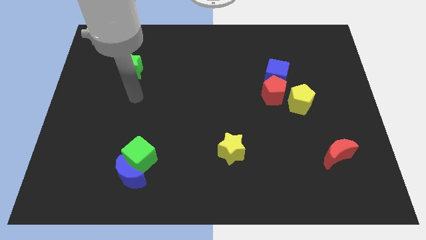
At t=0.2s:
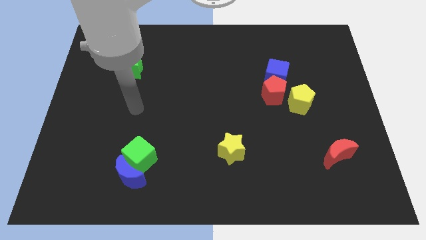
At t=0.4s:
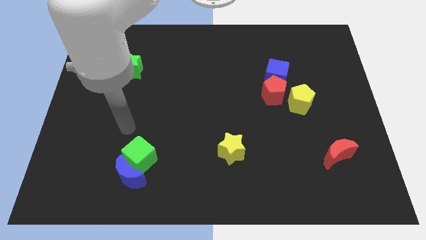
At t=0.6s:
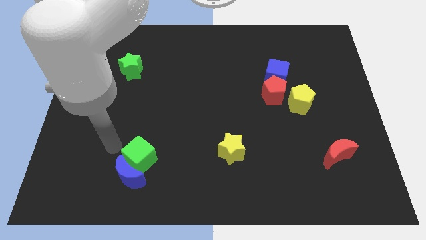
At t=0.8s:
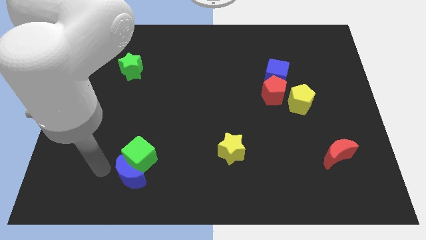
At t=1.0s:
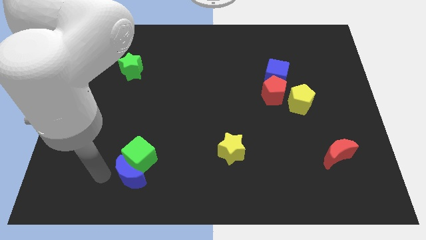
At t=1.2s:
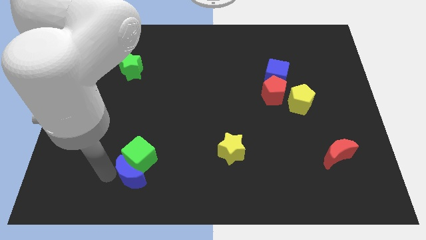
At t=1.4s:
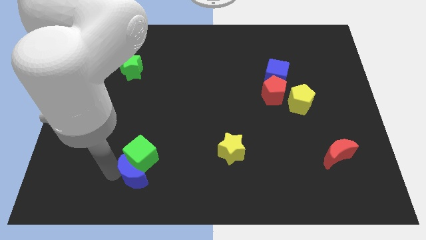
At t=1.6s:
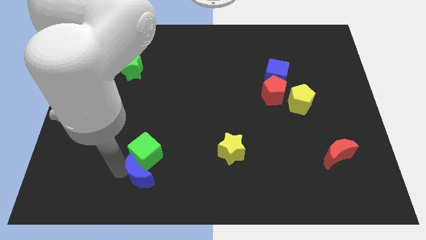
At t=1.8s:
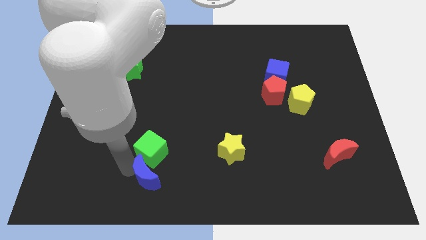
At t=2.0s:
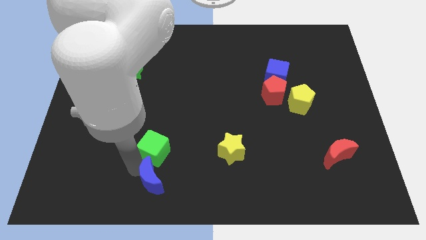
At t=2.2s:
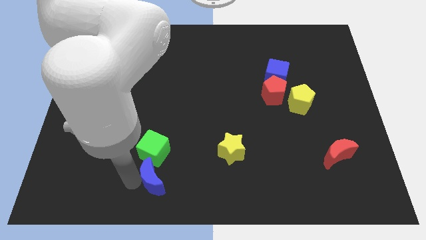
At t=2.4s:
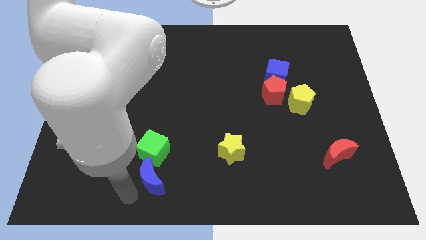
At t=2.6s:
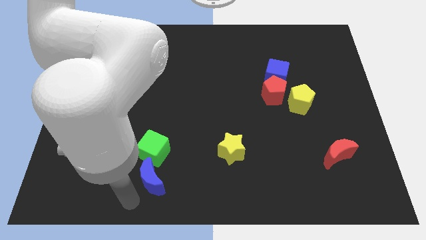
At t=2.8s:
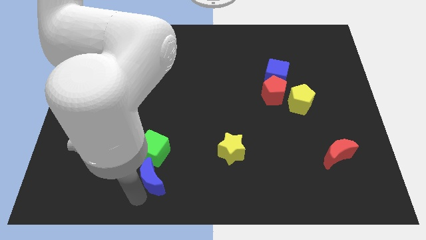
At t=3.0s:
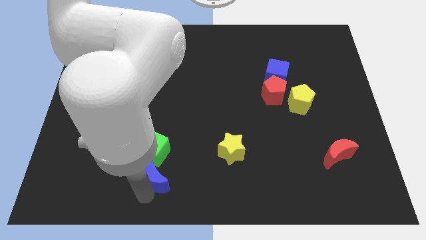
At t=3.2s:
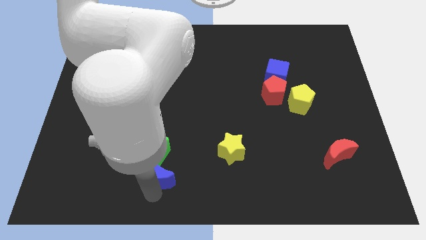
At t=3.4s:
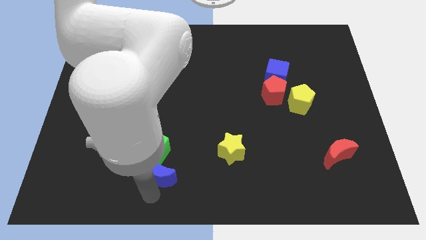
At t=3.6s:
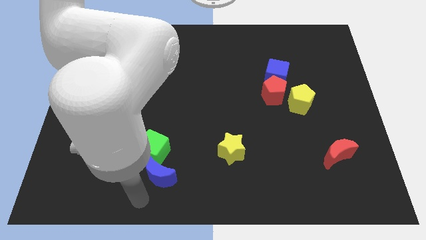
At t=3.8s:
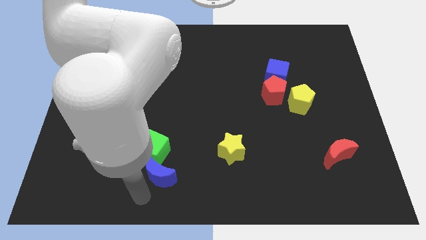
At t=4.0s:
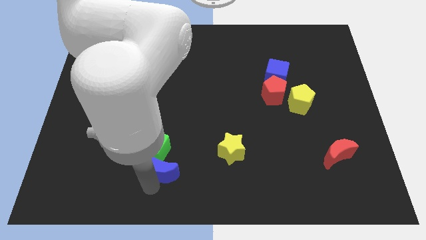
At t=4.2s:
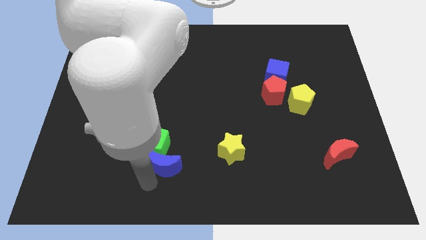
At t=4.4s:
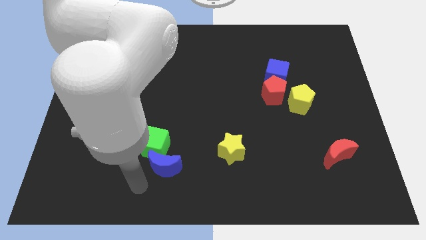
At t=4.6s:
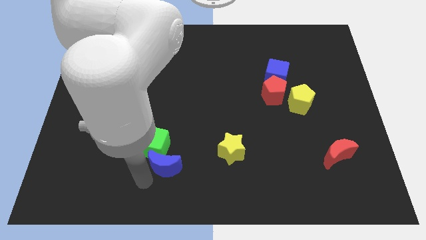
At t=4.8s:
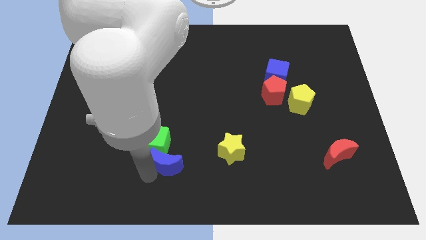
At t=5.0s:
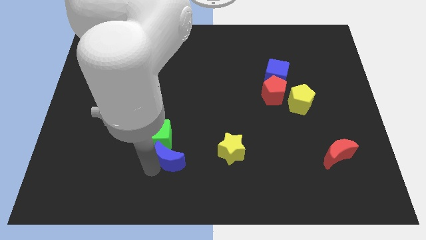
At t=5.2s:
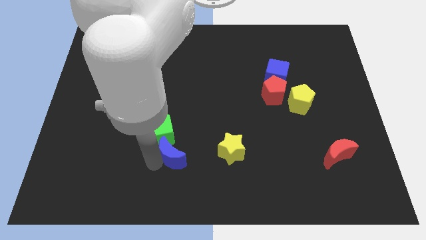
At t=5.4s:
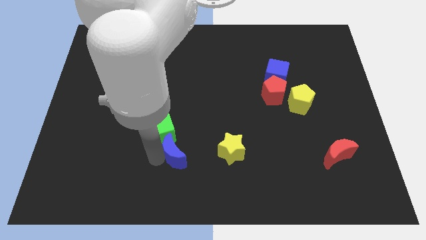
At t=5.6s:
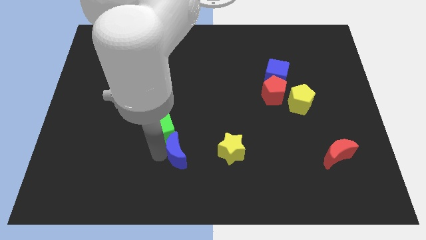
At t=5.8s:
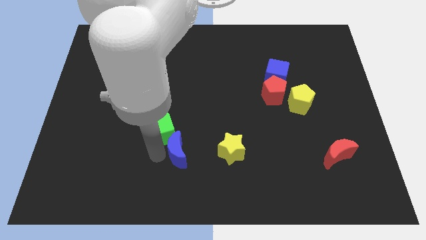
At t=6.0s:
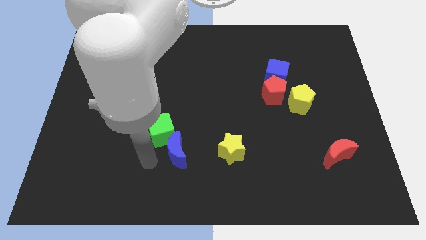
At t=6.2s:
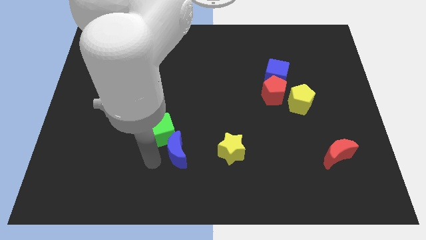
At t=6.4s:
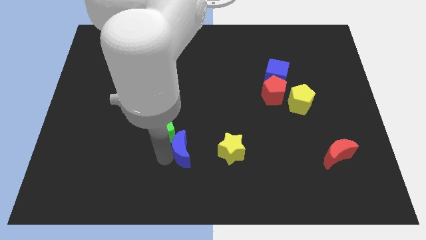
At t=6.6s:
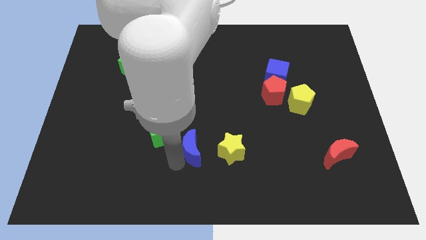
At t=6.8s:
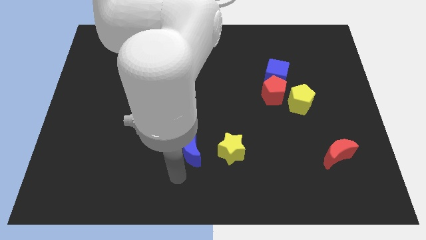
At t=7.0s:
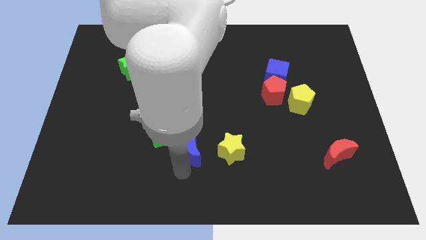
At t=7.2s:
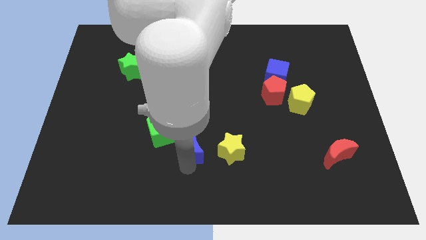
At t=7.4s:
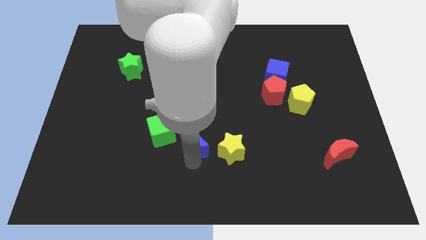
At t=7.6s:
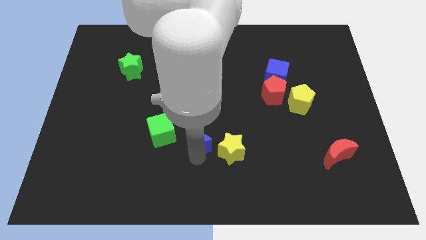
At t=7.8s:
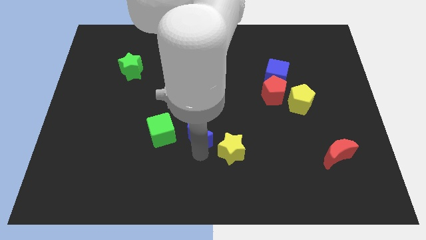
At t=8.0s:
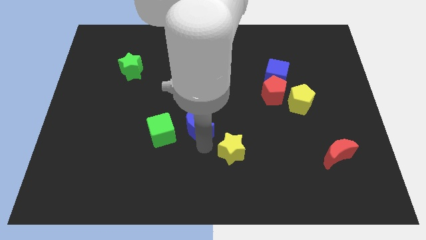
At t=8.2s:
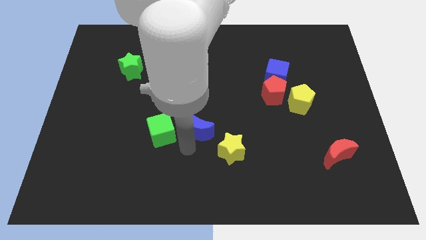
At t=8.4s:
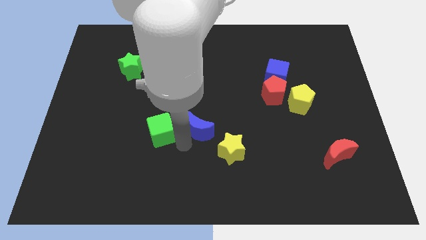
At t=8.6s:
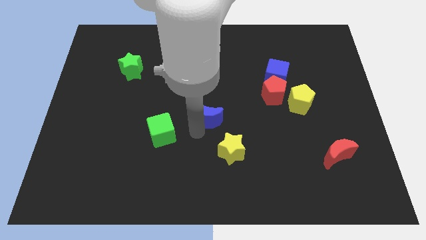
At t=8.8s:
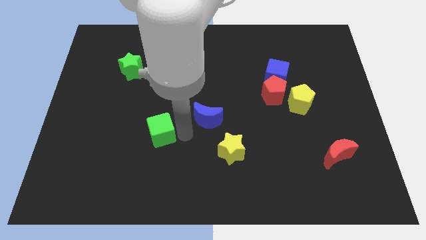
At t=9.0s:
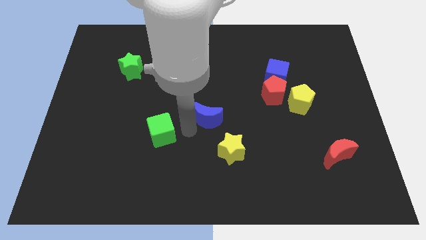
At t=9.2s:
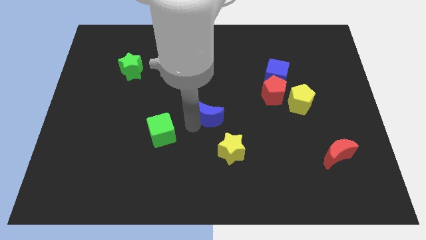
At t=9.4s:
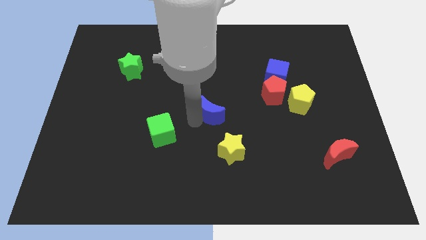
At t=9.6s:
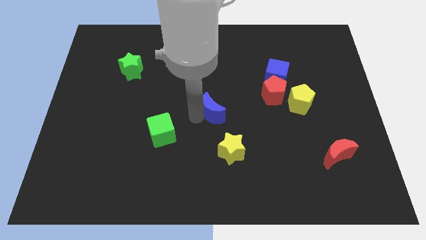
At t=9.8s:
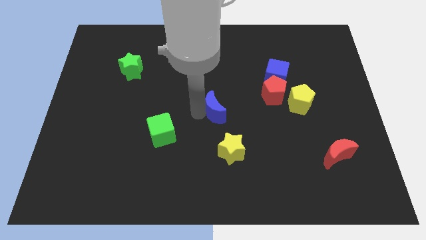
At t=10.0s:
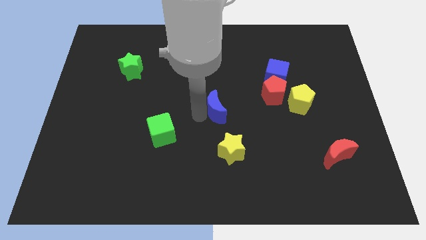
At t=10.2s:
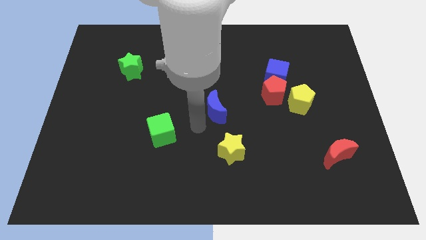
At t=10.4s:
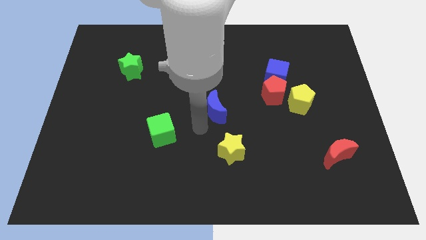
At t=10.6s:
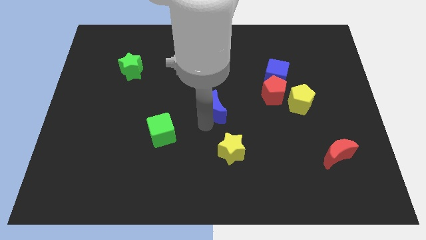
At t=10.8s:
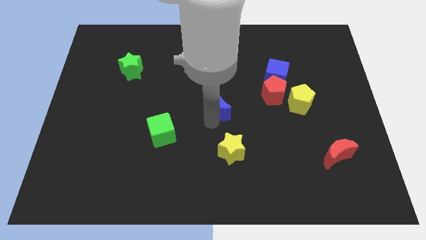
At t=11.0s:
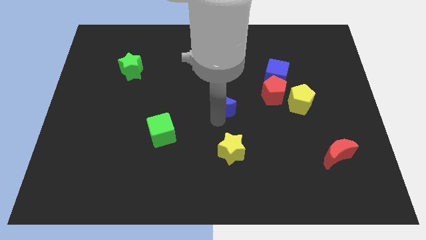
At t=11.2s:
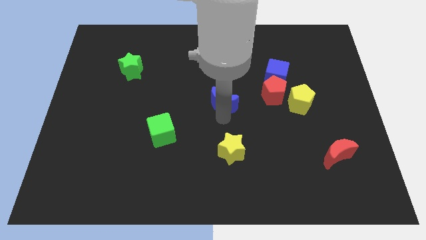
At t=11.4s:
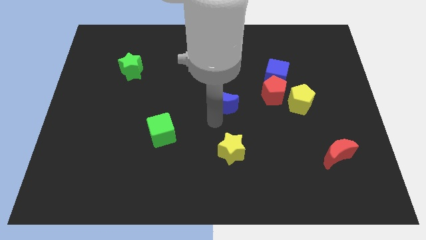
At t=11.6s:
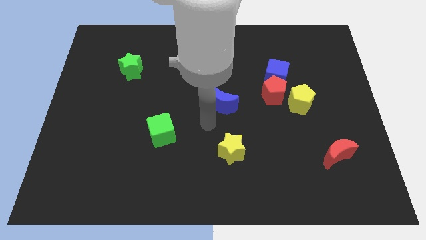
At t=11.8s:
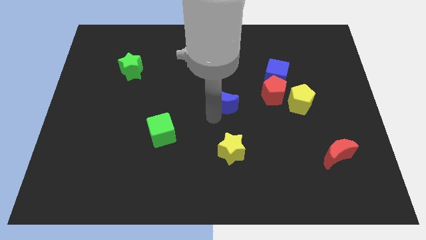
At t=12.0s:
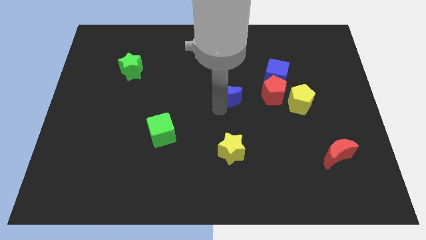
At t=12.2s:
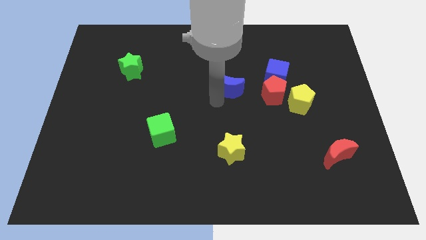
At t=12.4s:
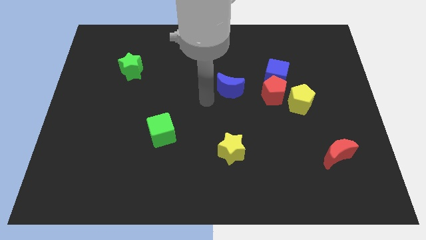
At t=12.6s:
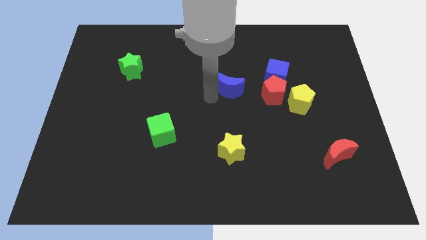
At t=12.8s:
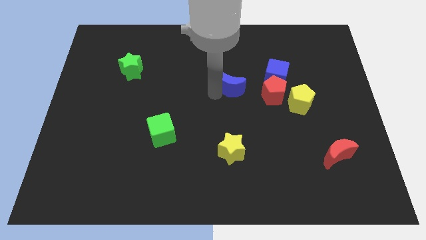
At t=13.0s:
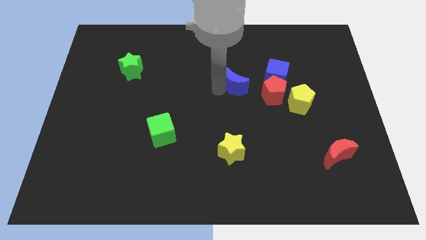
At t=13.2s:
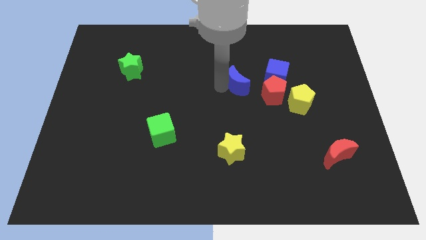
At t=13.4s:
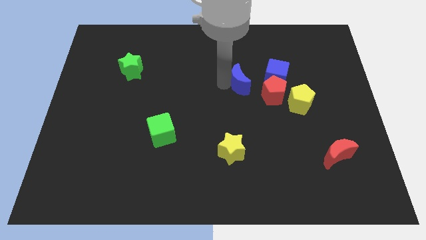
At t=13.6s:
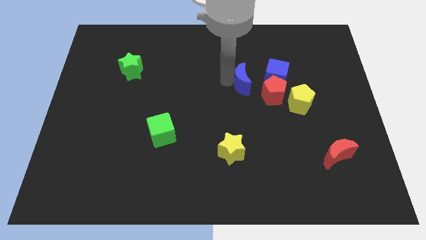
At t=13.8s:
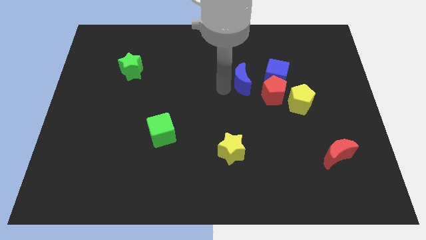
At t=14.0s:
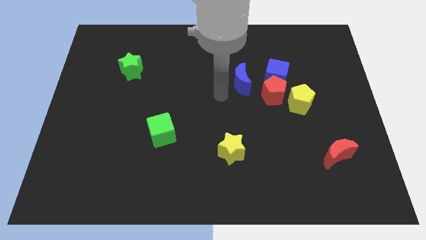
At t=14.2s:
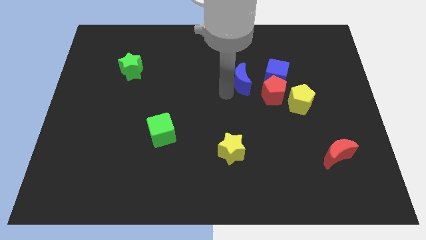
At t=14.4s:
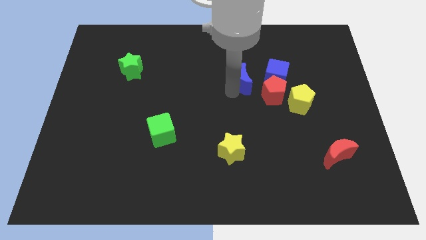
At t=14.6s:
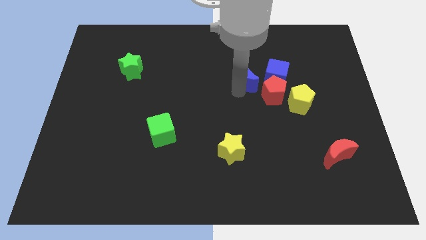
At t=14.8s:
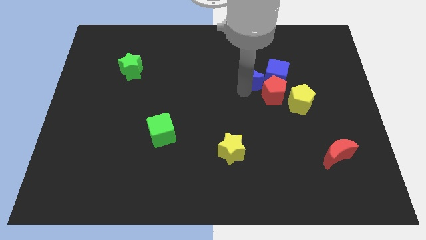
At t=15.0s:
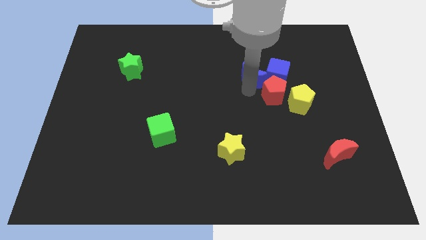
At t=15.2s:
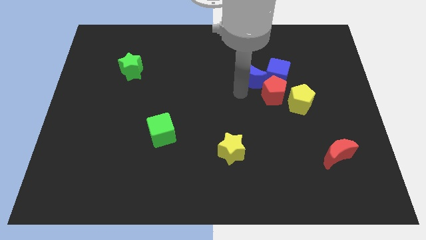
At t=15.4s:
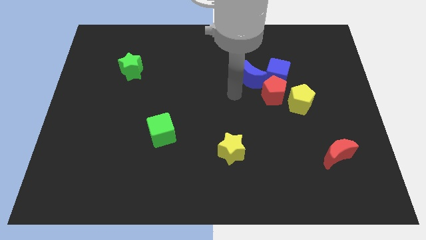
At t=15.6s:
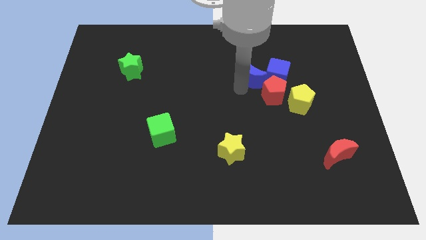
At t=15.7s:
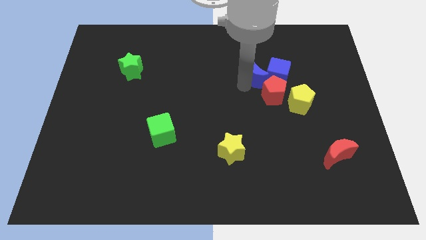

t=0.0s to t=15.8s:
push the blue moon to the top side of the red pentagon
